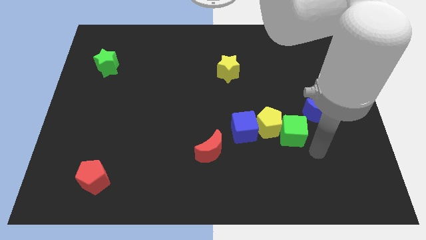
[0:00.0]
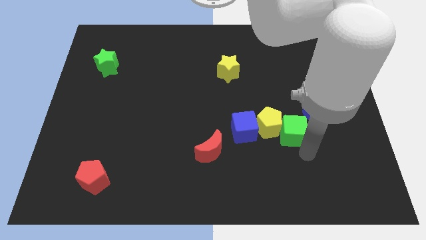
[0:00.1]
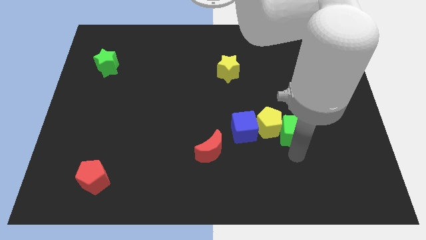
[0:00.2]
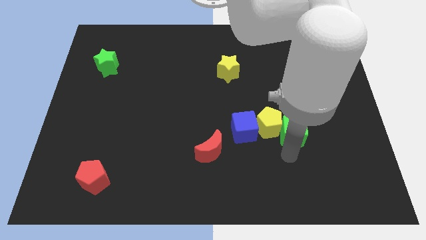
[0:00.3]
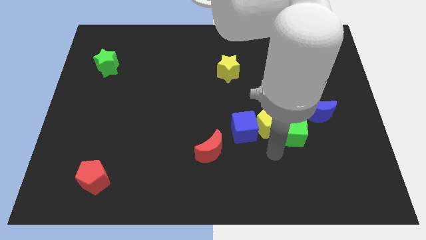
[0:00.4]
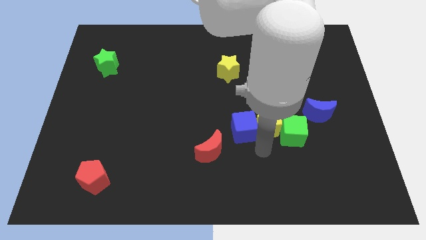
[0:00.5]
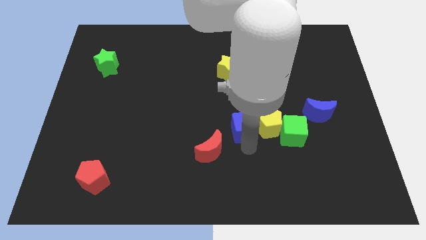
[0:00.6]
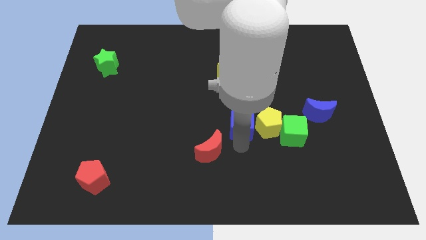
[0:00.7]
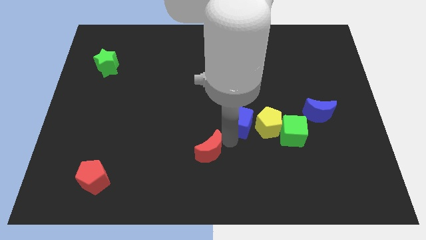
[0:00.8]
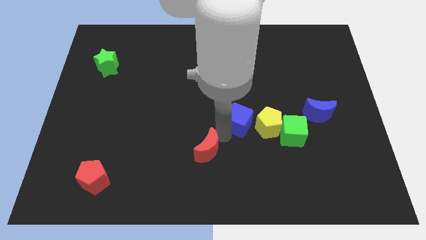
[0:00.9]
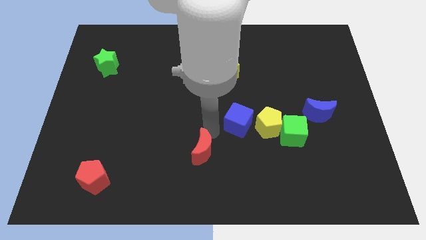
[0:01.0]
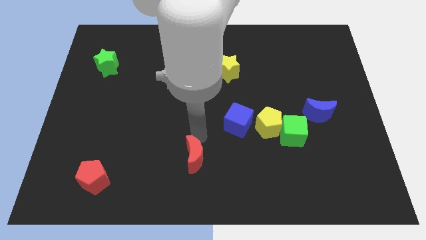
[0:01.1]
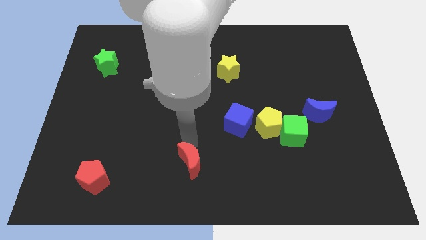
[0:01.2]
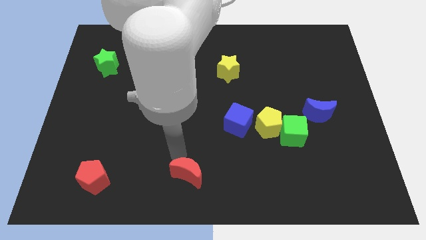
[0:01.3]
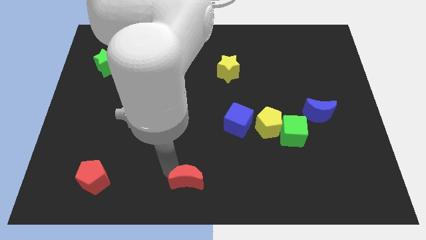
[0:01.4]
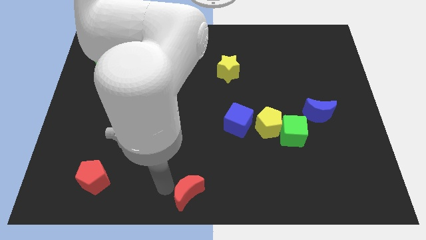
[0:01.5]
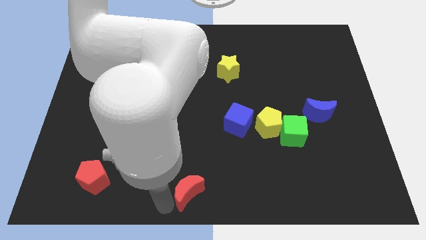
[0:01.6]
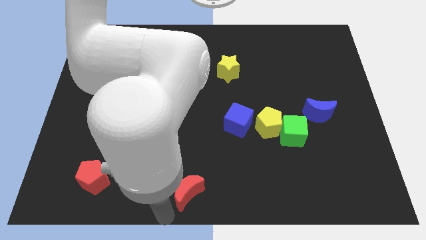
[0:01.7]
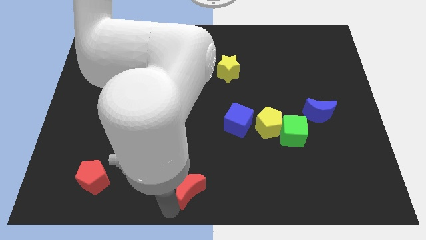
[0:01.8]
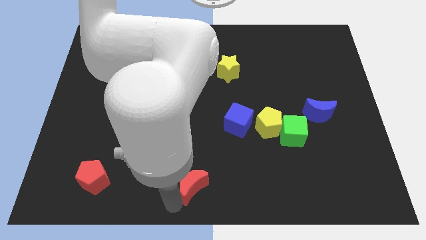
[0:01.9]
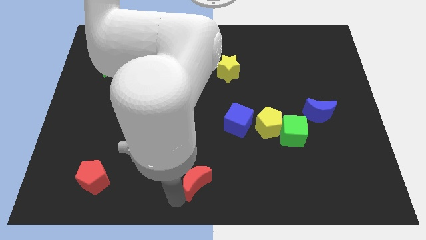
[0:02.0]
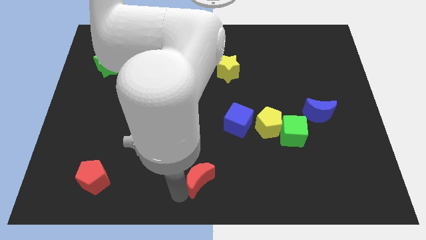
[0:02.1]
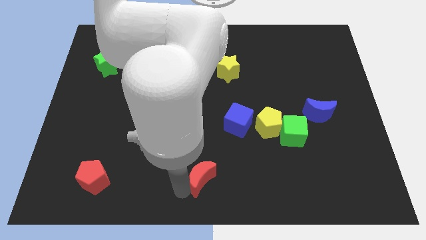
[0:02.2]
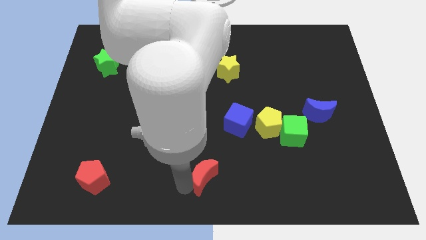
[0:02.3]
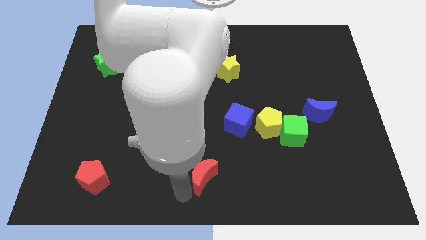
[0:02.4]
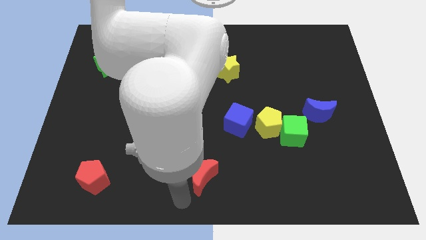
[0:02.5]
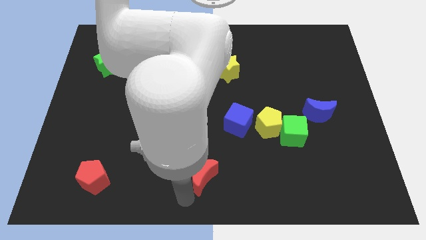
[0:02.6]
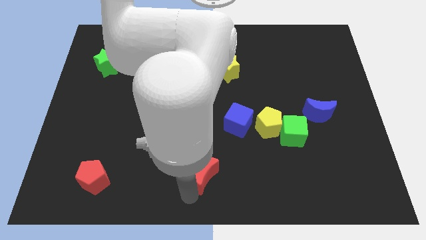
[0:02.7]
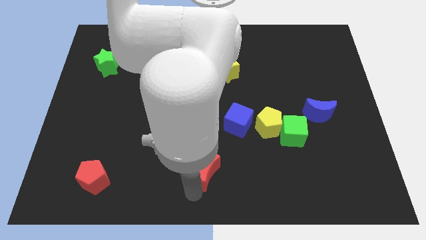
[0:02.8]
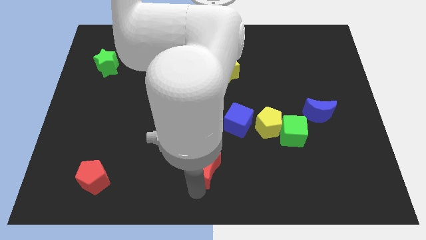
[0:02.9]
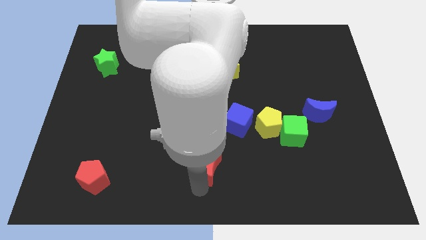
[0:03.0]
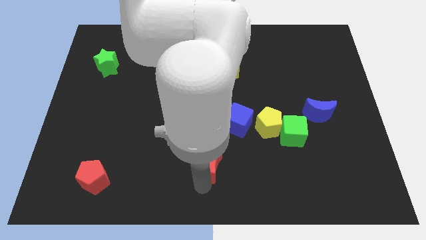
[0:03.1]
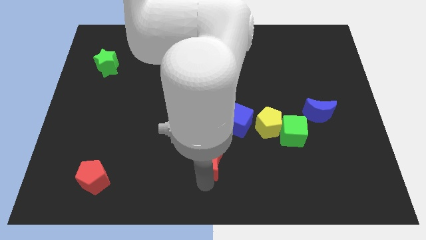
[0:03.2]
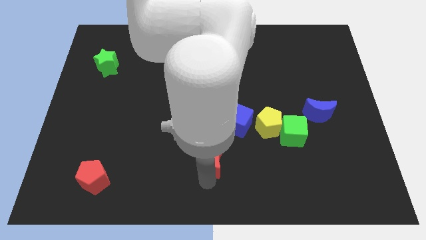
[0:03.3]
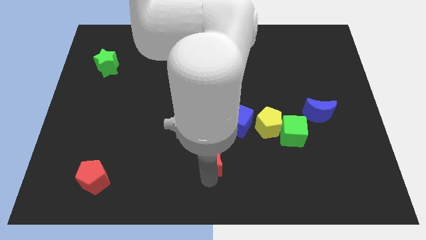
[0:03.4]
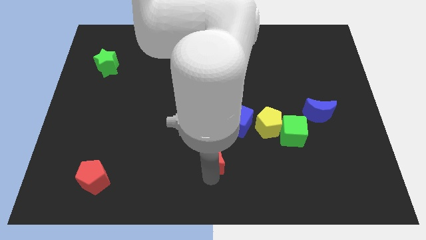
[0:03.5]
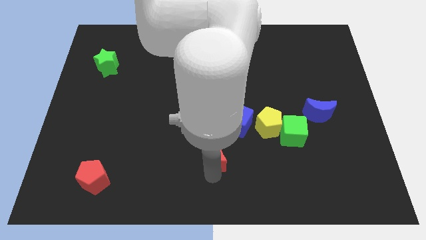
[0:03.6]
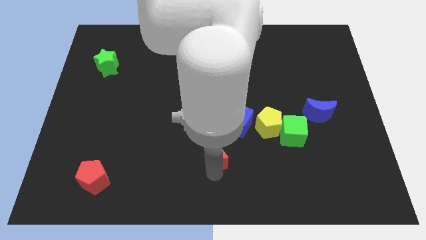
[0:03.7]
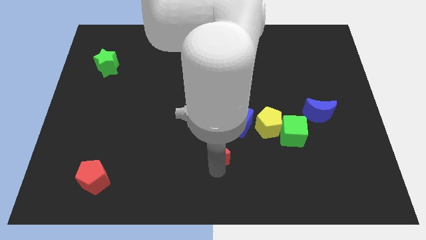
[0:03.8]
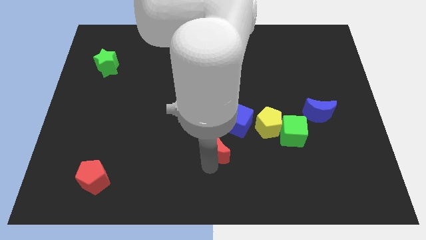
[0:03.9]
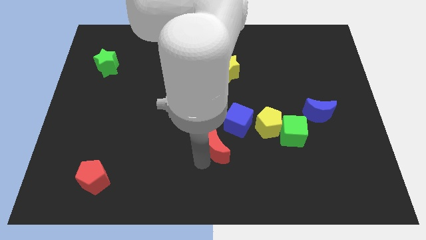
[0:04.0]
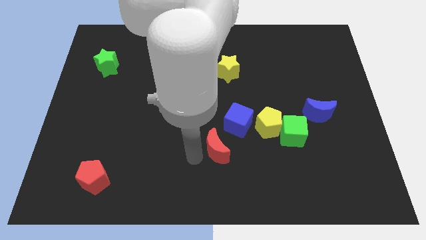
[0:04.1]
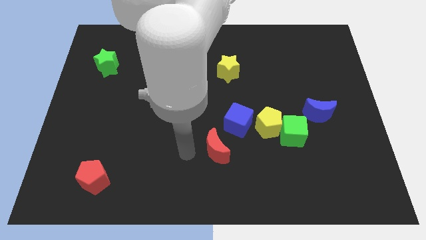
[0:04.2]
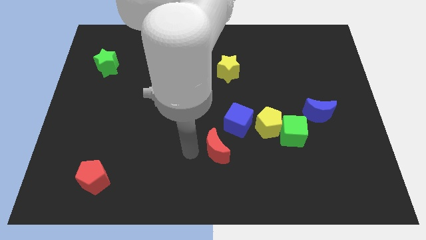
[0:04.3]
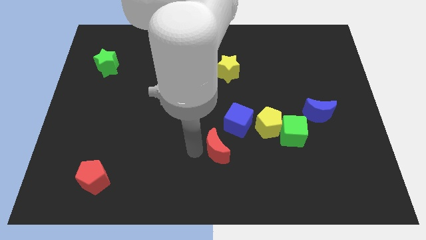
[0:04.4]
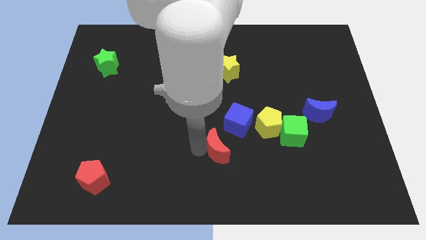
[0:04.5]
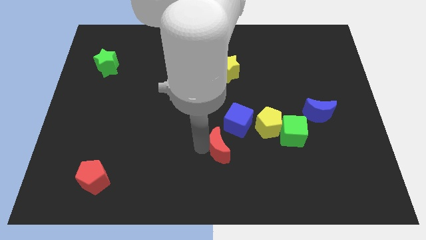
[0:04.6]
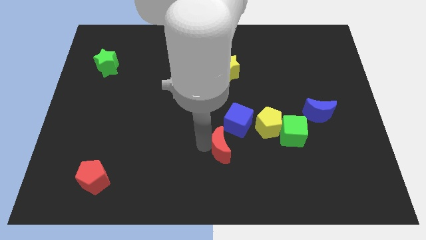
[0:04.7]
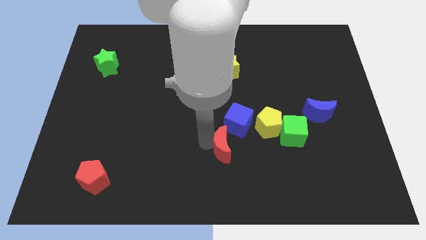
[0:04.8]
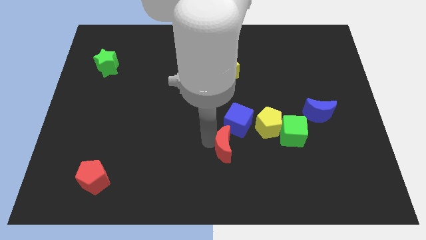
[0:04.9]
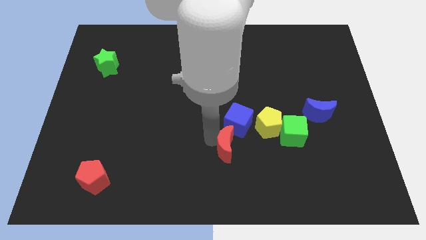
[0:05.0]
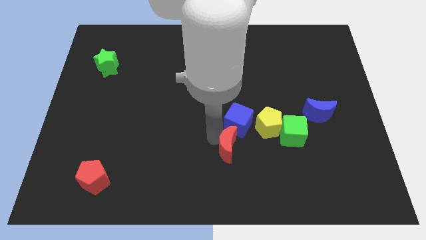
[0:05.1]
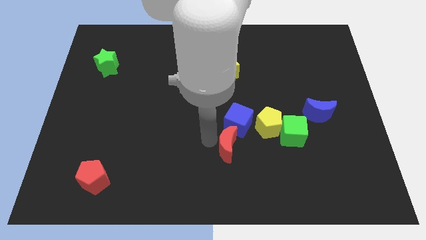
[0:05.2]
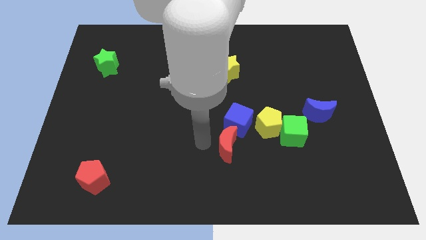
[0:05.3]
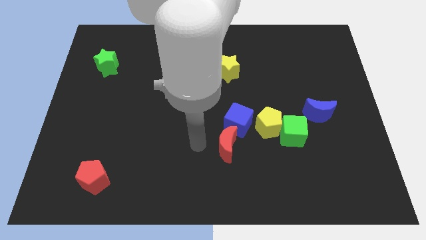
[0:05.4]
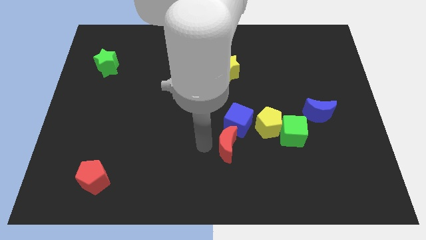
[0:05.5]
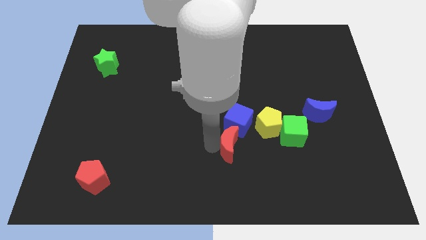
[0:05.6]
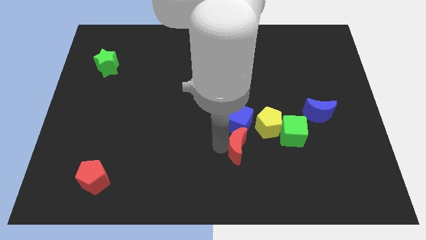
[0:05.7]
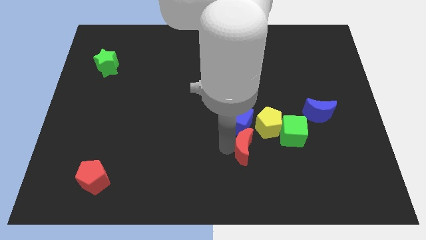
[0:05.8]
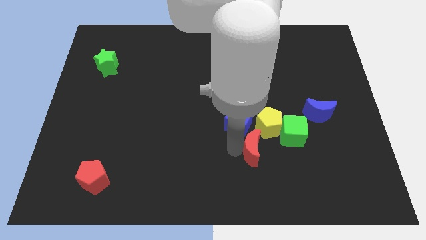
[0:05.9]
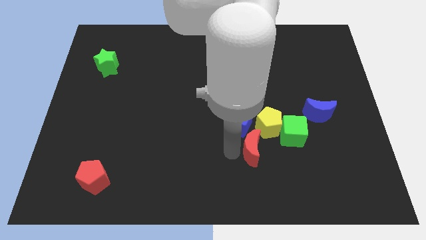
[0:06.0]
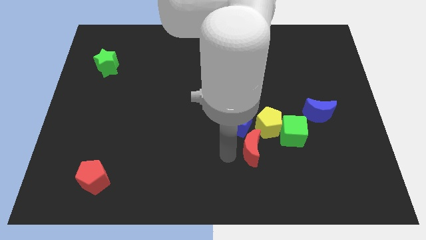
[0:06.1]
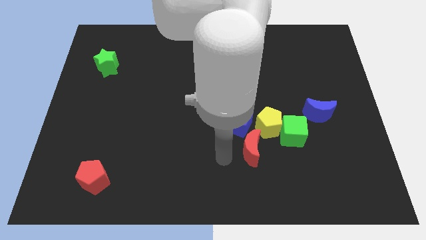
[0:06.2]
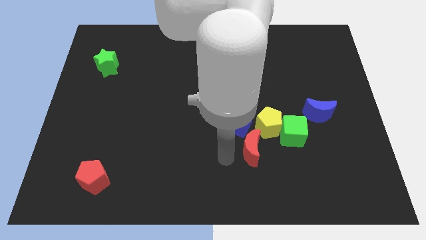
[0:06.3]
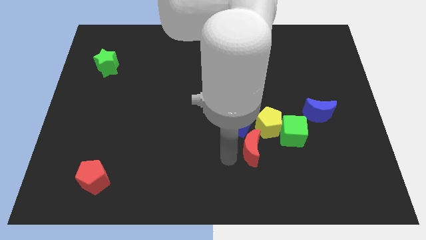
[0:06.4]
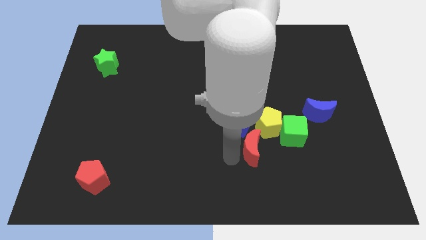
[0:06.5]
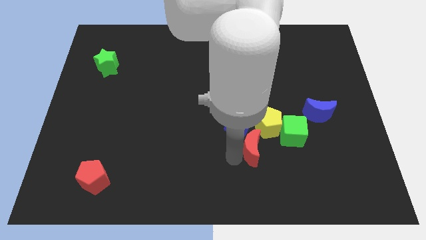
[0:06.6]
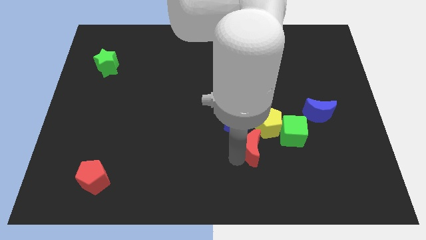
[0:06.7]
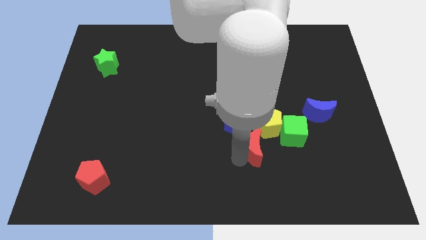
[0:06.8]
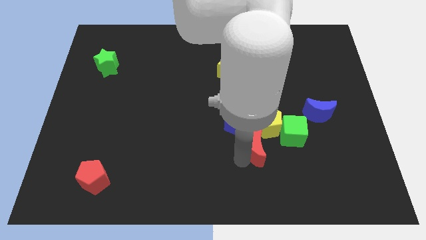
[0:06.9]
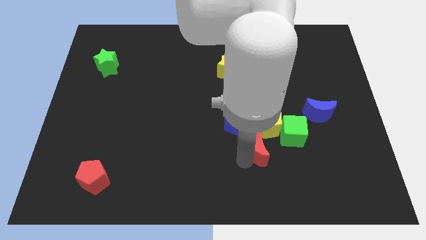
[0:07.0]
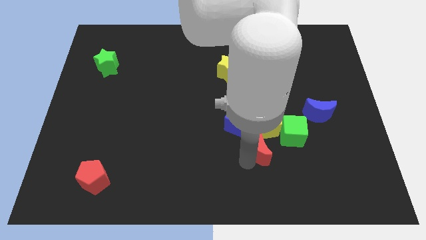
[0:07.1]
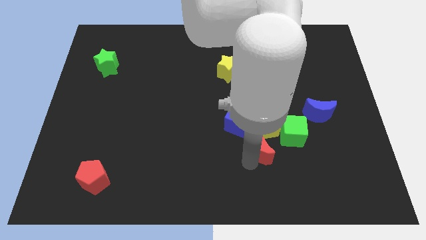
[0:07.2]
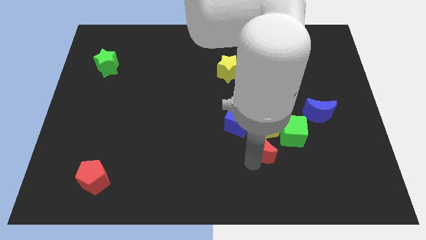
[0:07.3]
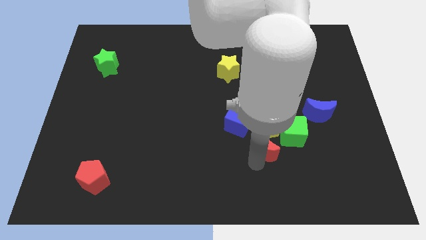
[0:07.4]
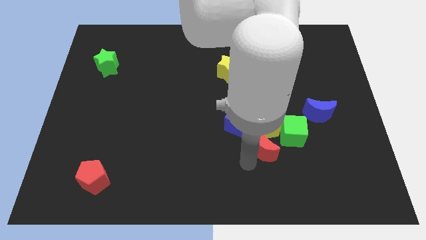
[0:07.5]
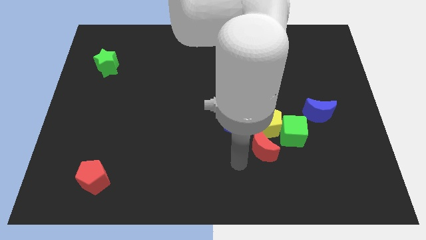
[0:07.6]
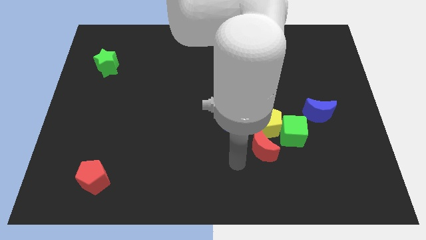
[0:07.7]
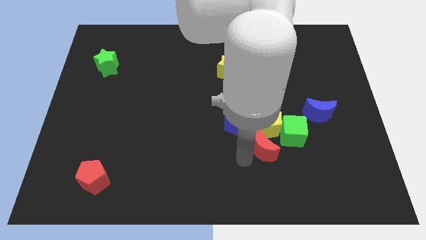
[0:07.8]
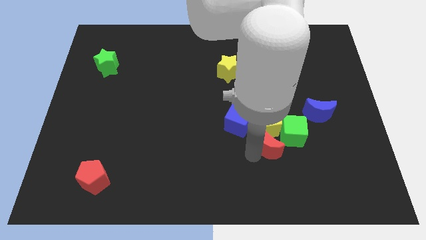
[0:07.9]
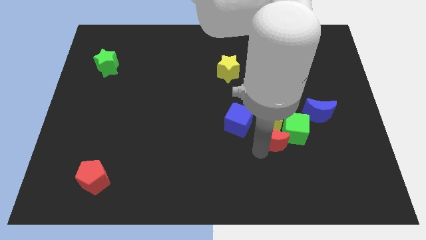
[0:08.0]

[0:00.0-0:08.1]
slide the red moon to the green cube
